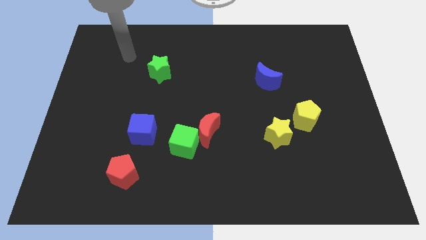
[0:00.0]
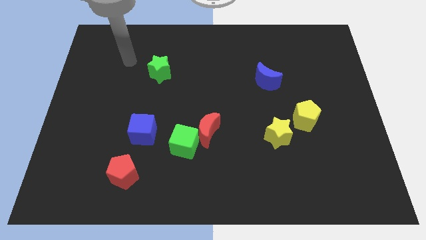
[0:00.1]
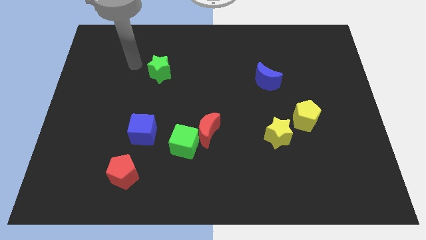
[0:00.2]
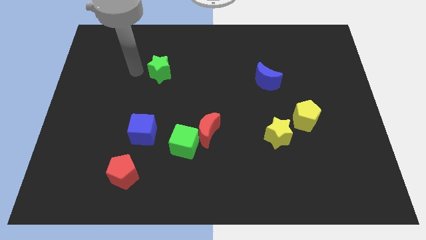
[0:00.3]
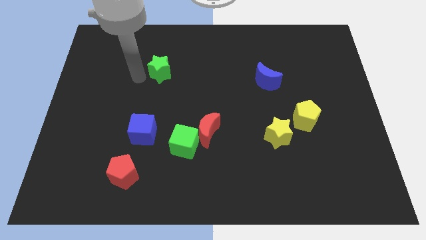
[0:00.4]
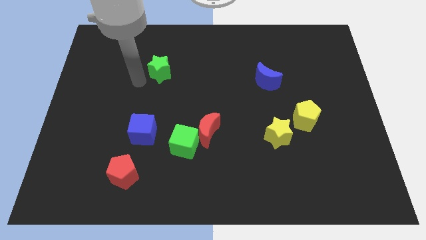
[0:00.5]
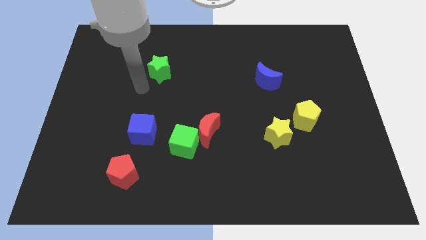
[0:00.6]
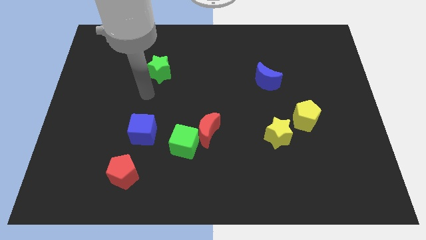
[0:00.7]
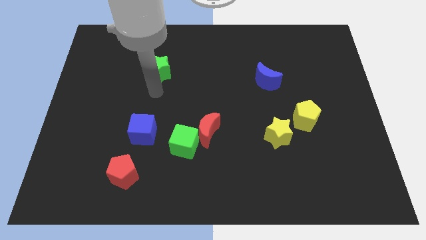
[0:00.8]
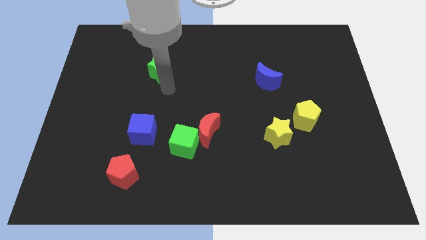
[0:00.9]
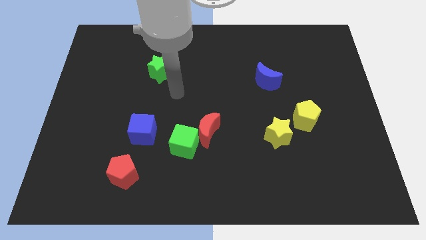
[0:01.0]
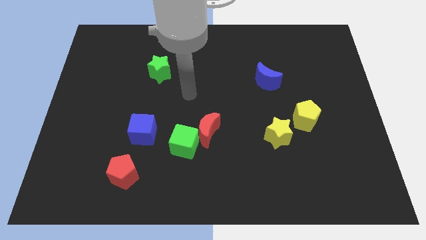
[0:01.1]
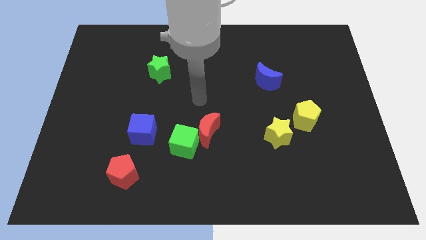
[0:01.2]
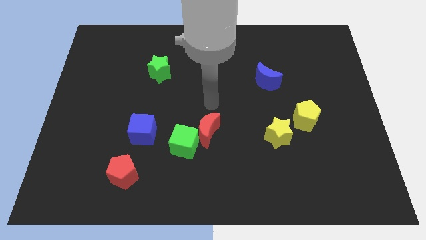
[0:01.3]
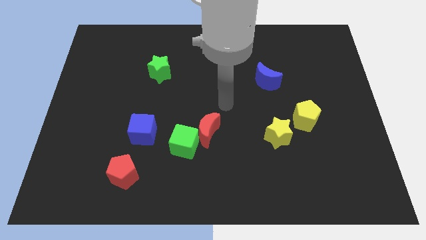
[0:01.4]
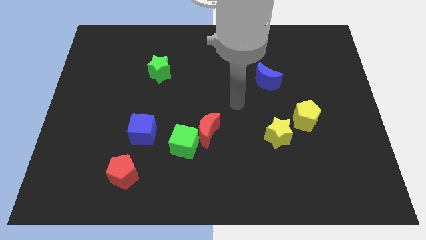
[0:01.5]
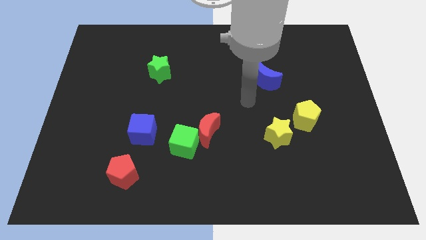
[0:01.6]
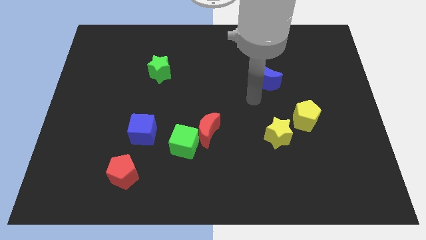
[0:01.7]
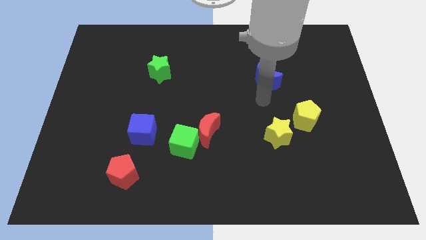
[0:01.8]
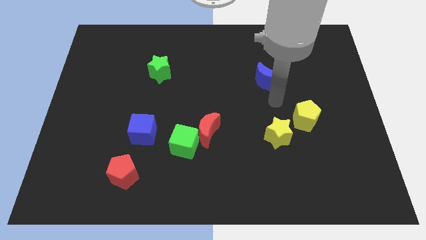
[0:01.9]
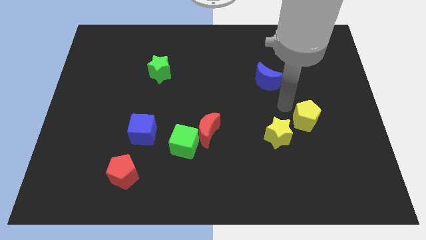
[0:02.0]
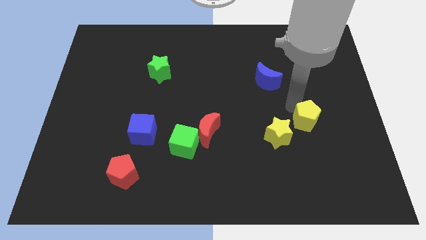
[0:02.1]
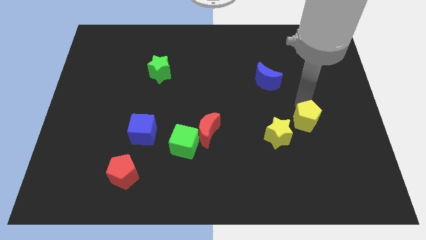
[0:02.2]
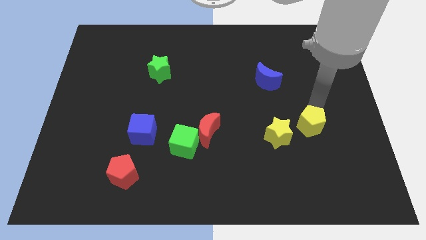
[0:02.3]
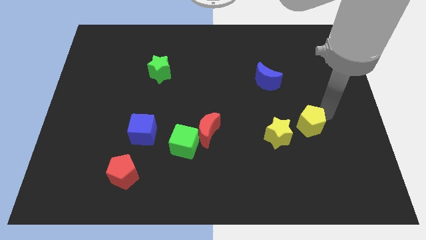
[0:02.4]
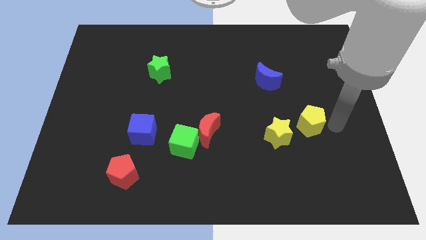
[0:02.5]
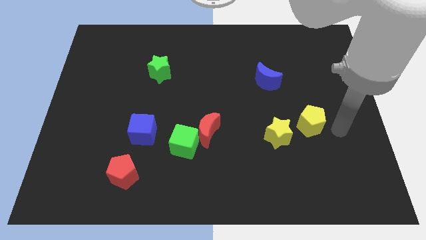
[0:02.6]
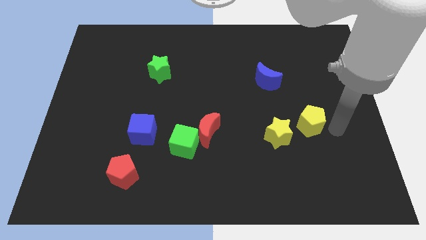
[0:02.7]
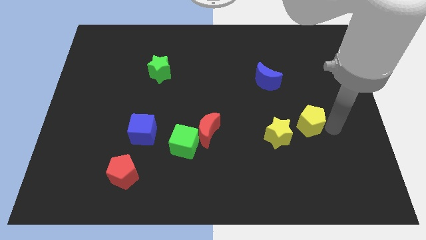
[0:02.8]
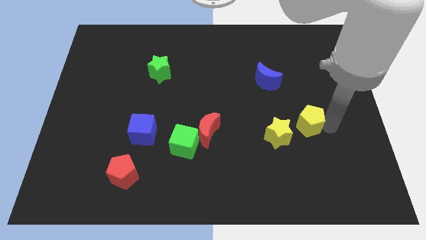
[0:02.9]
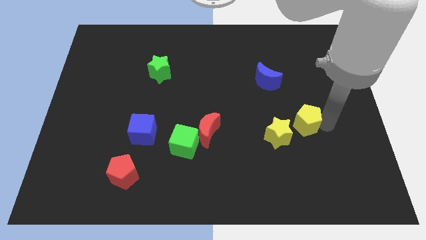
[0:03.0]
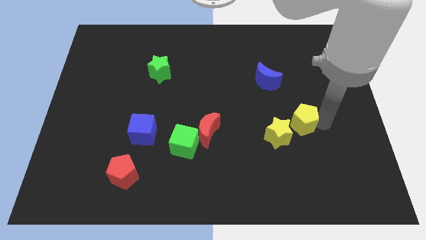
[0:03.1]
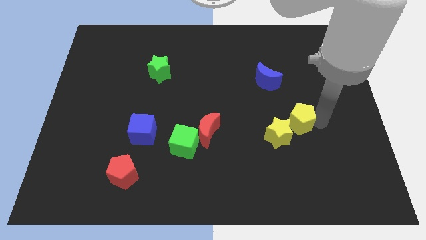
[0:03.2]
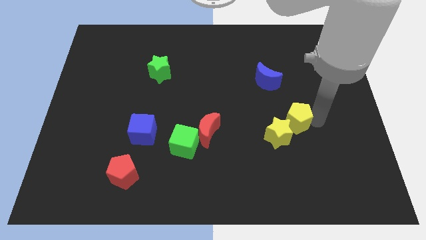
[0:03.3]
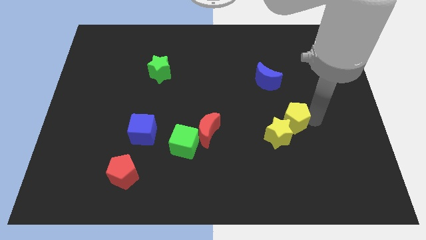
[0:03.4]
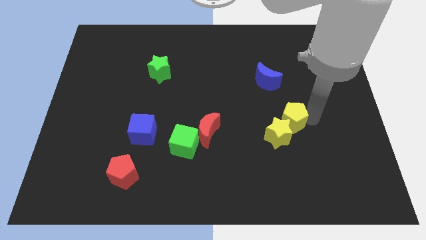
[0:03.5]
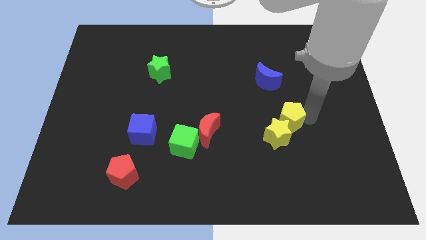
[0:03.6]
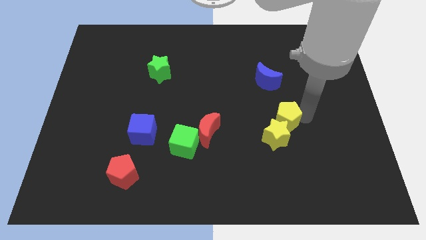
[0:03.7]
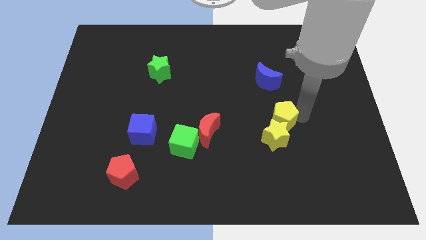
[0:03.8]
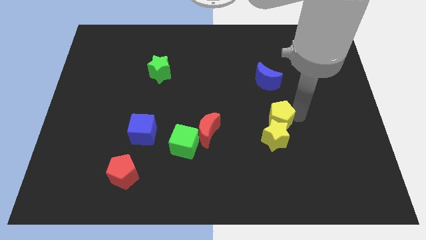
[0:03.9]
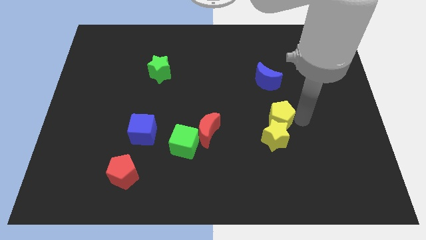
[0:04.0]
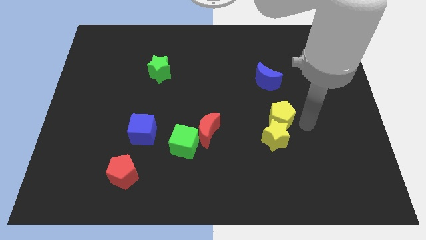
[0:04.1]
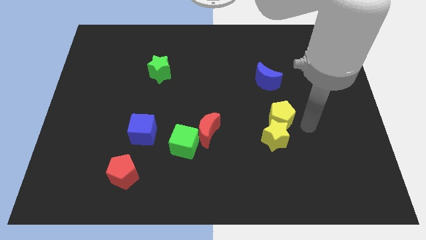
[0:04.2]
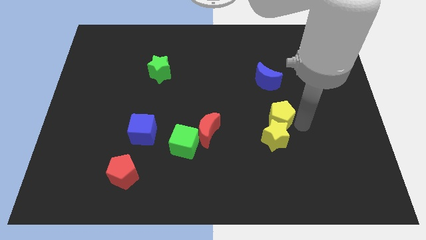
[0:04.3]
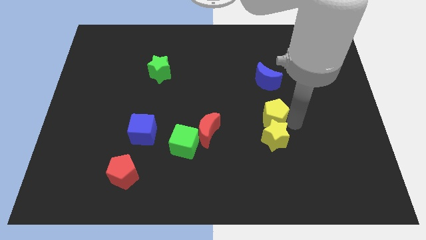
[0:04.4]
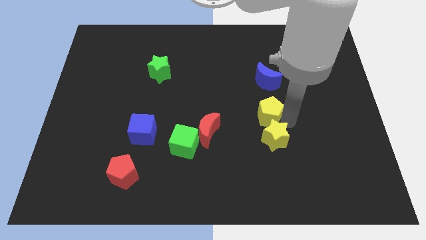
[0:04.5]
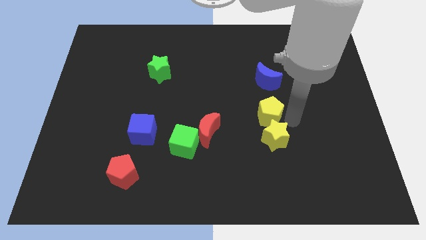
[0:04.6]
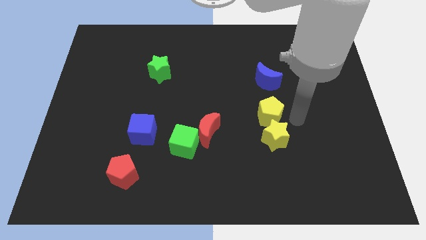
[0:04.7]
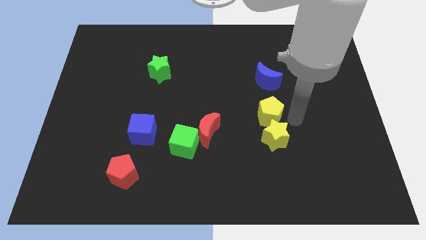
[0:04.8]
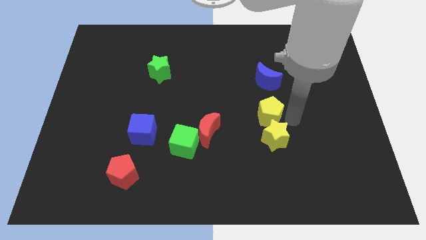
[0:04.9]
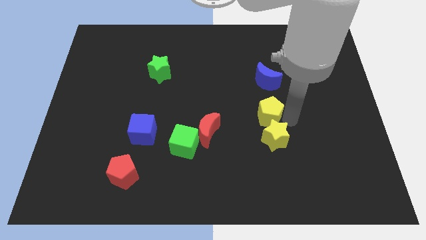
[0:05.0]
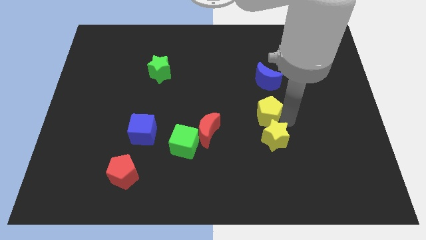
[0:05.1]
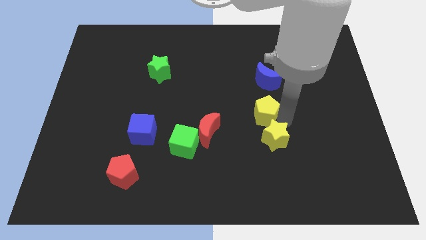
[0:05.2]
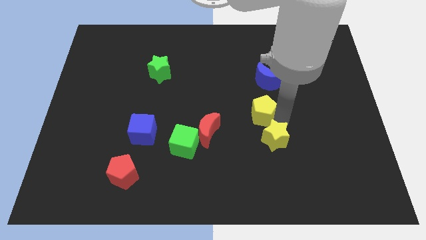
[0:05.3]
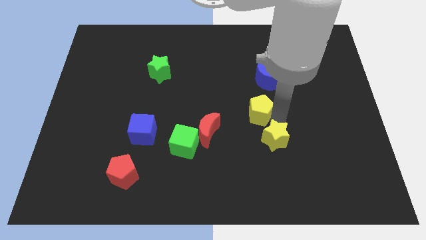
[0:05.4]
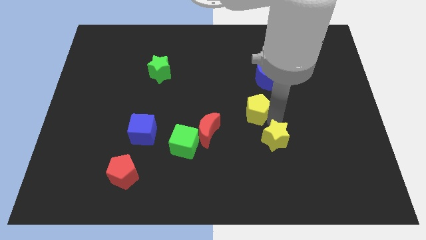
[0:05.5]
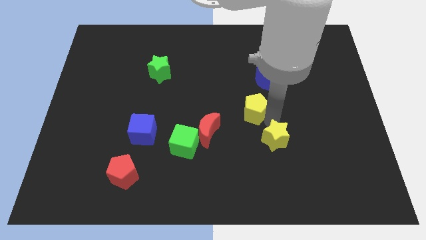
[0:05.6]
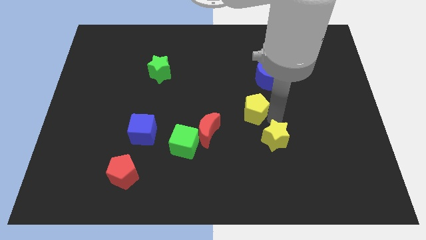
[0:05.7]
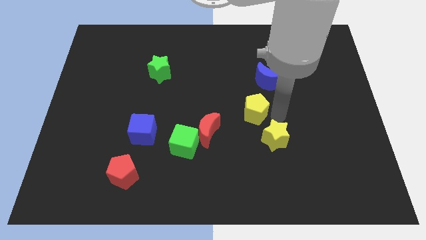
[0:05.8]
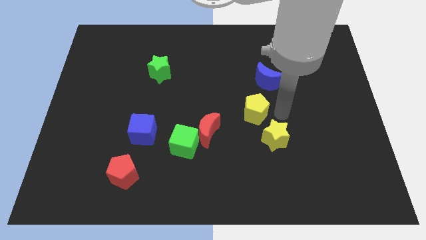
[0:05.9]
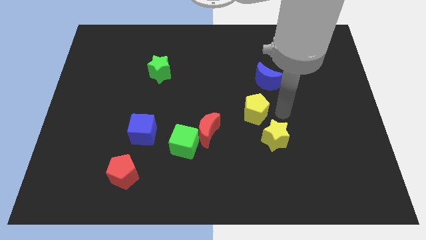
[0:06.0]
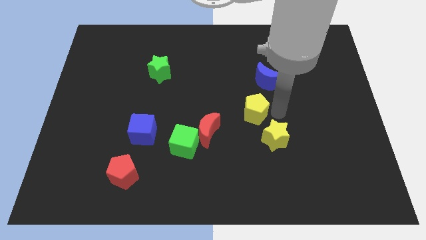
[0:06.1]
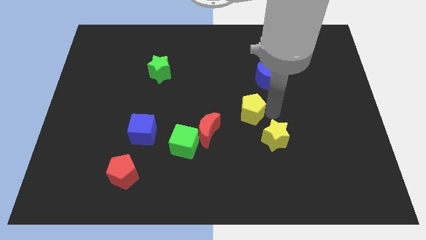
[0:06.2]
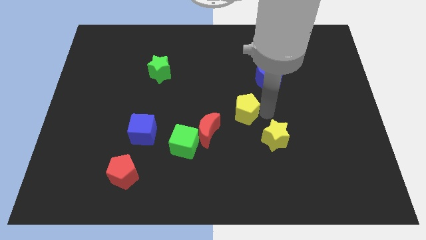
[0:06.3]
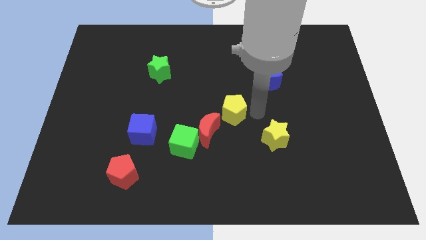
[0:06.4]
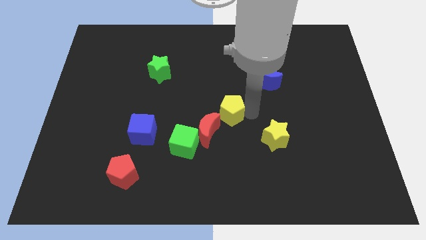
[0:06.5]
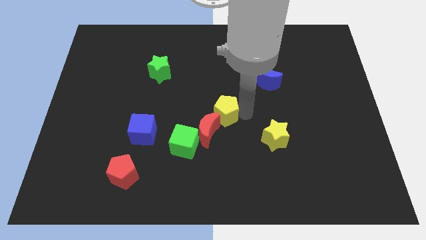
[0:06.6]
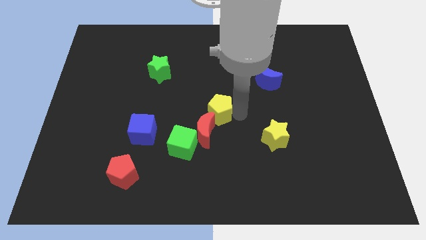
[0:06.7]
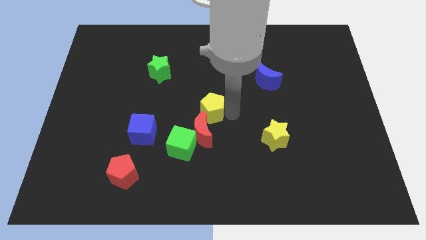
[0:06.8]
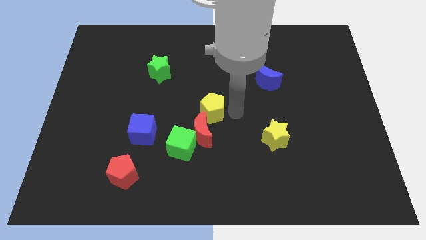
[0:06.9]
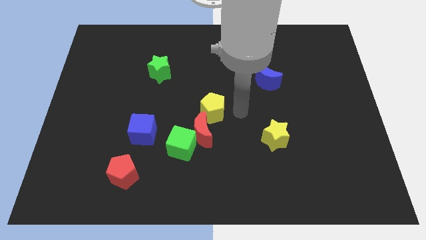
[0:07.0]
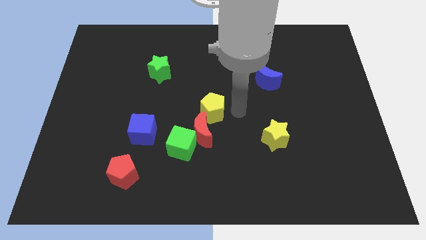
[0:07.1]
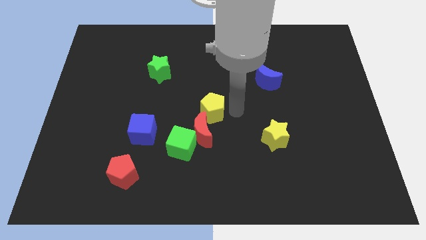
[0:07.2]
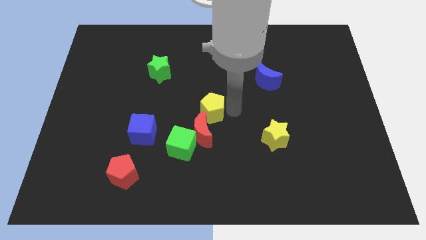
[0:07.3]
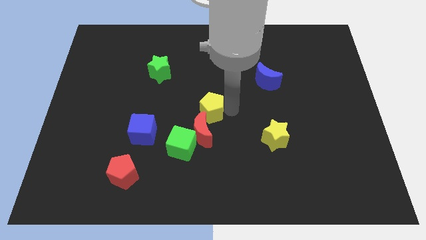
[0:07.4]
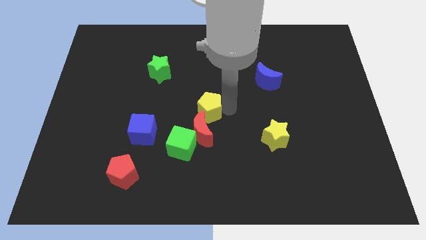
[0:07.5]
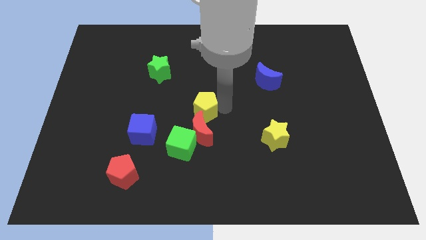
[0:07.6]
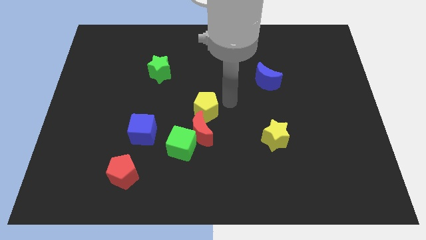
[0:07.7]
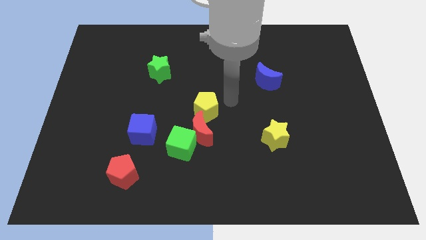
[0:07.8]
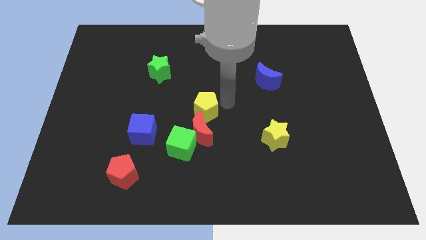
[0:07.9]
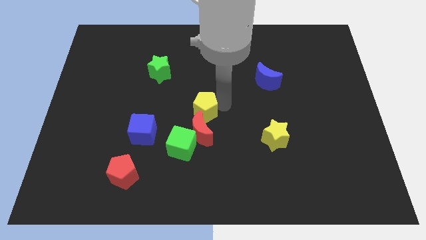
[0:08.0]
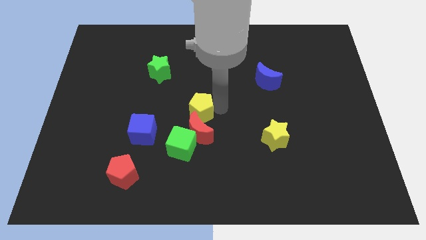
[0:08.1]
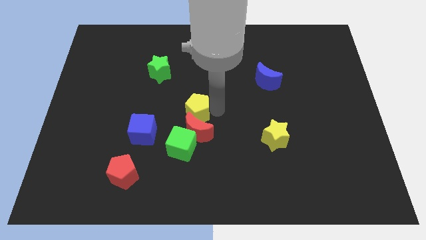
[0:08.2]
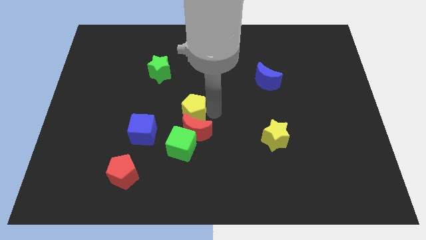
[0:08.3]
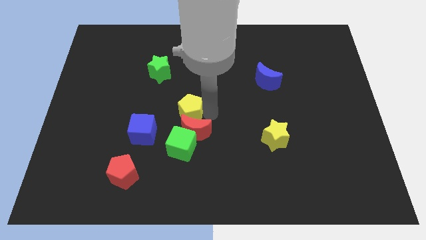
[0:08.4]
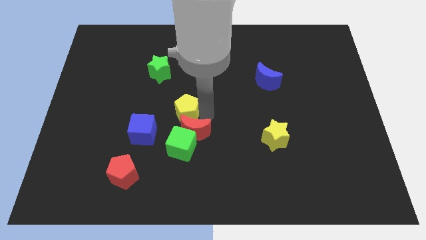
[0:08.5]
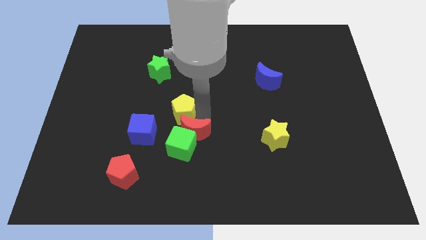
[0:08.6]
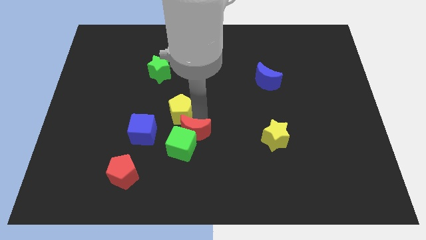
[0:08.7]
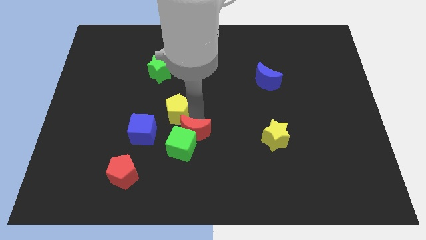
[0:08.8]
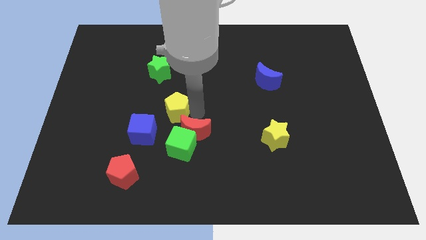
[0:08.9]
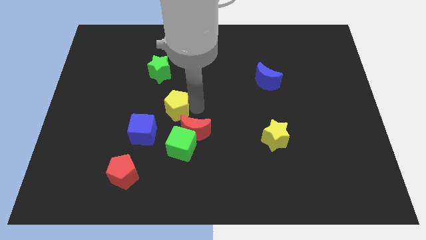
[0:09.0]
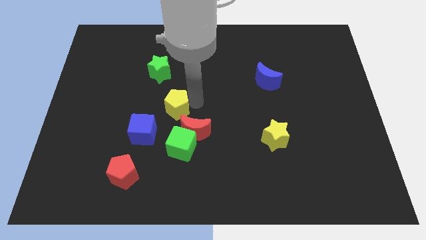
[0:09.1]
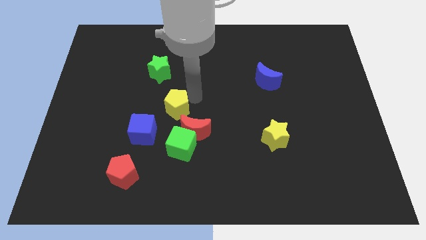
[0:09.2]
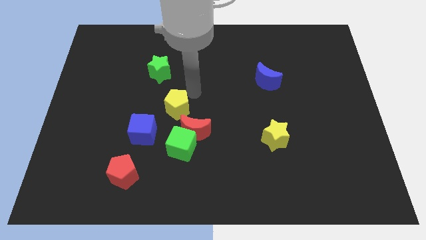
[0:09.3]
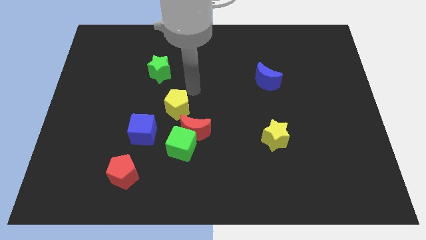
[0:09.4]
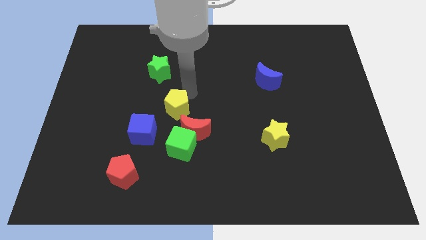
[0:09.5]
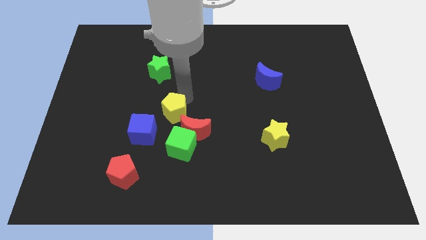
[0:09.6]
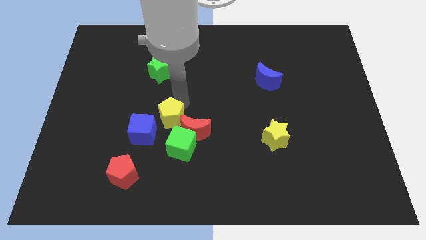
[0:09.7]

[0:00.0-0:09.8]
slide the yellow pentagon diagonally up and to the left of the green cube
